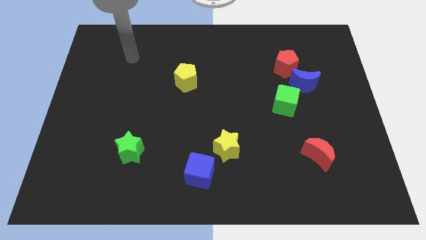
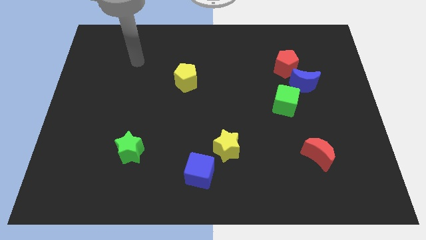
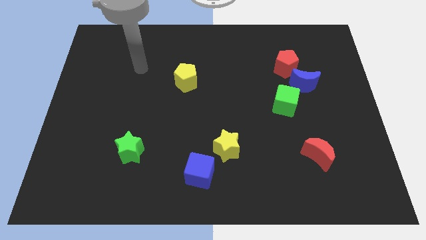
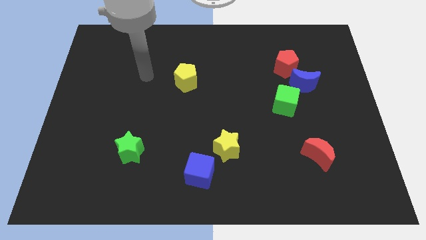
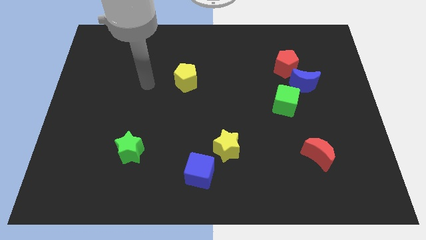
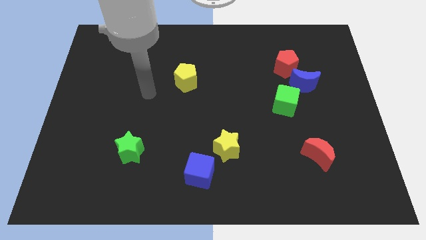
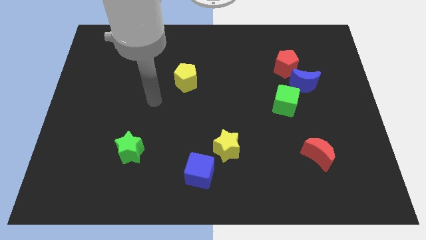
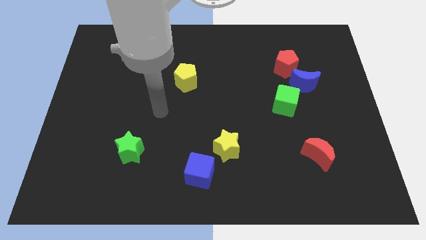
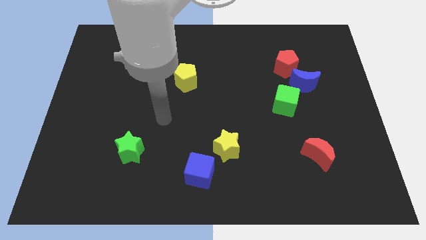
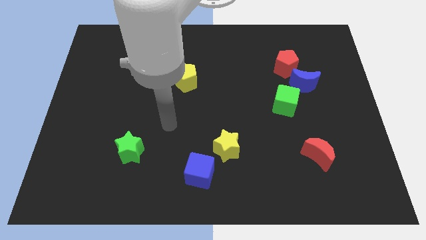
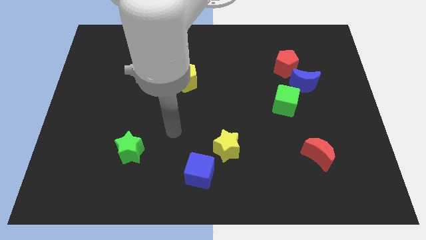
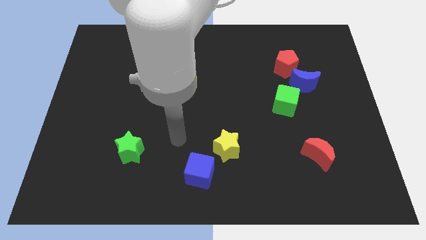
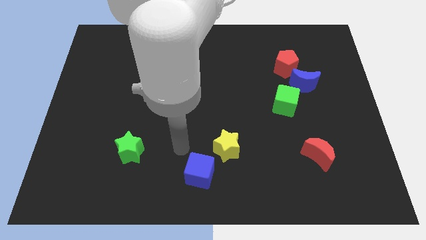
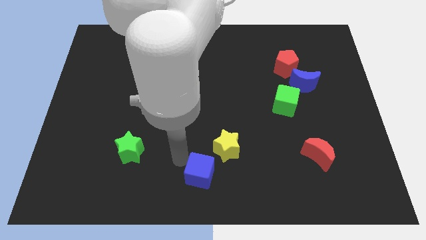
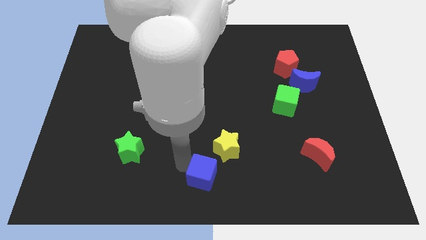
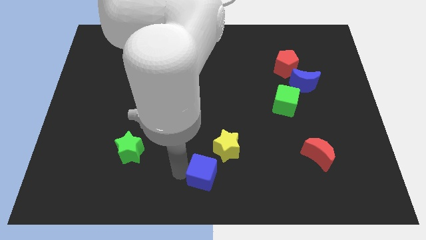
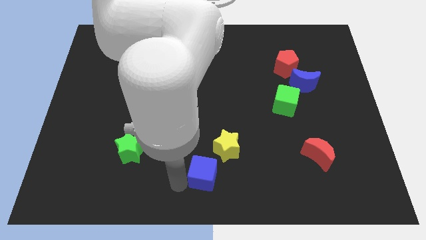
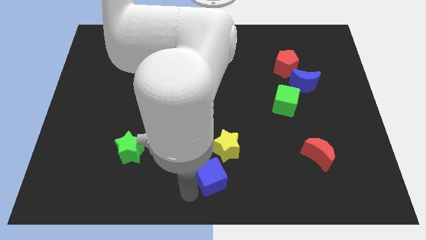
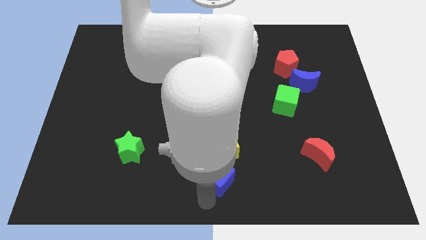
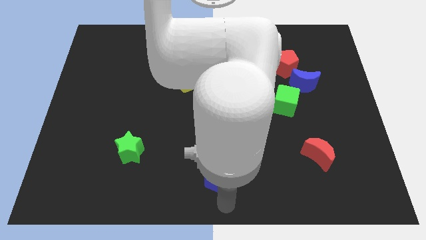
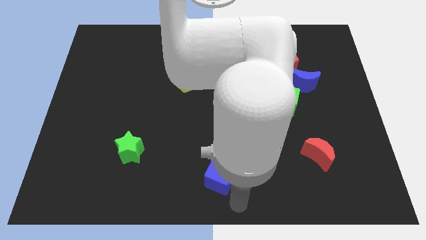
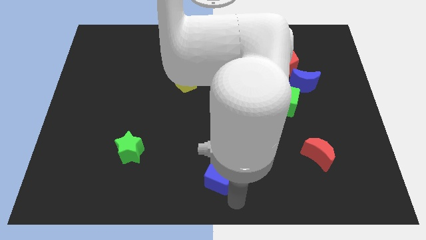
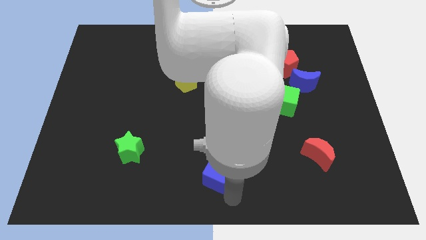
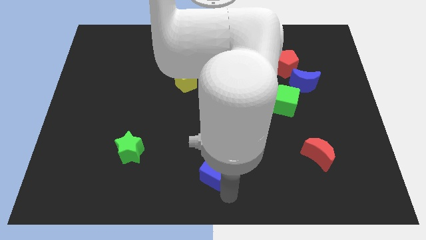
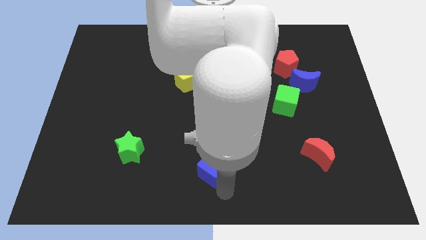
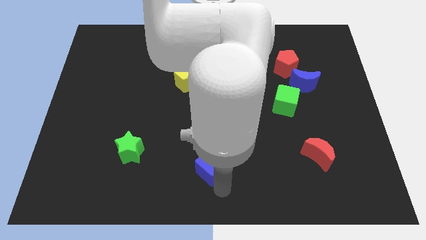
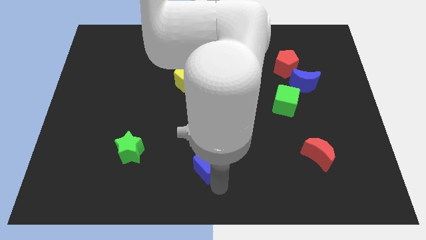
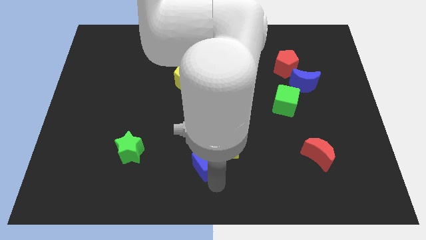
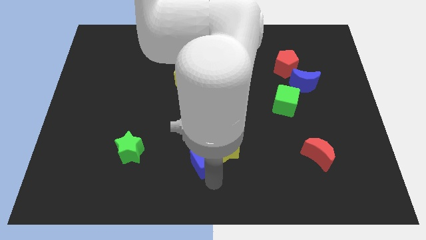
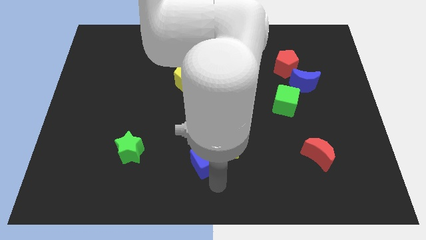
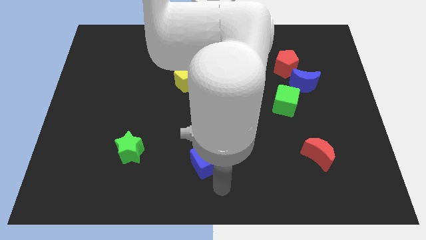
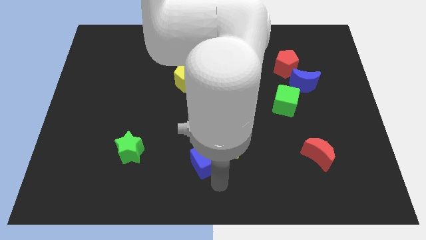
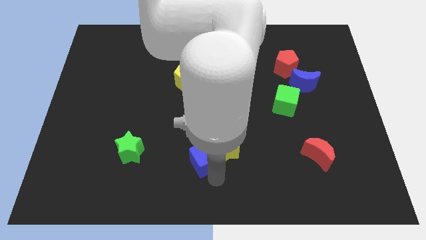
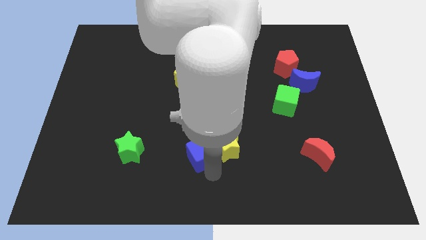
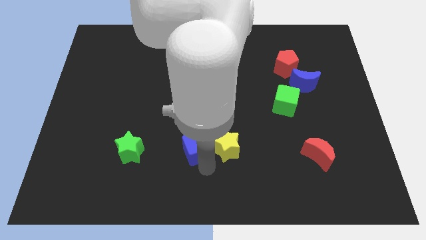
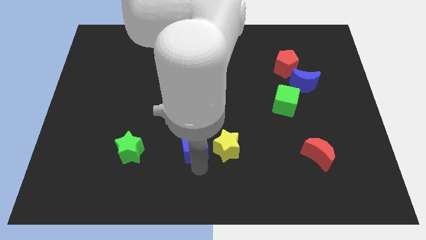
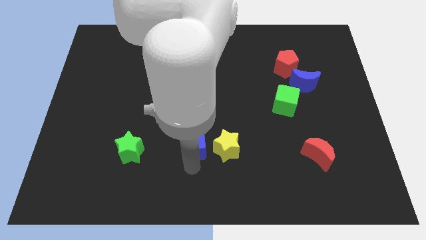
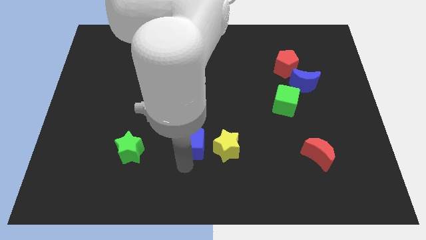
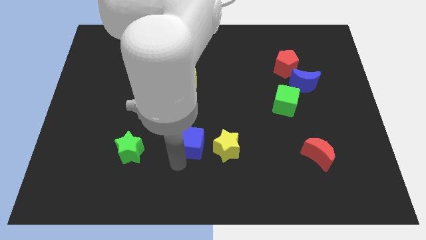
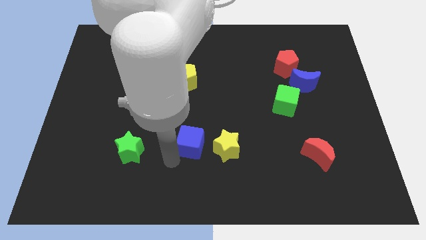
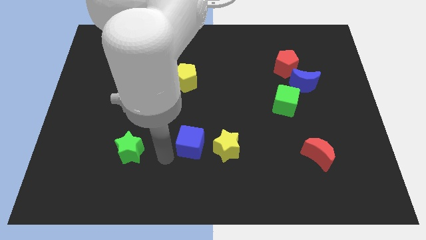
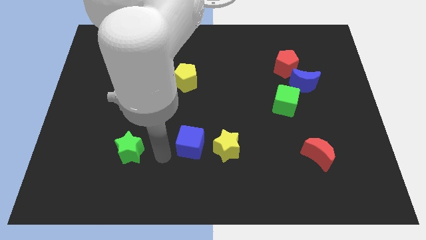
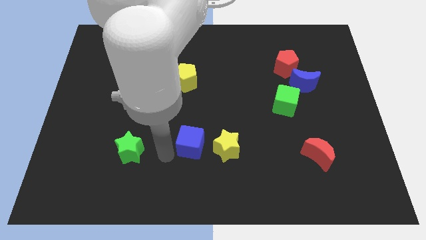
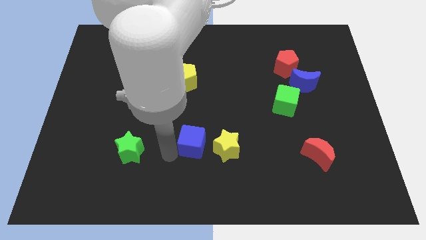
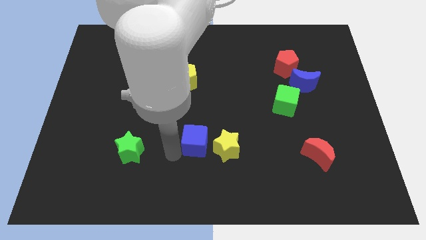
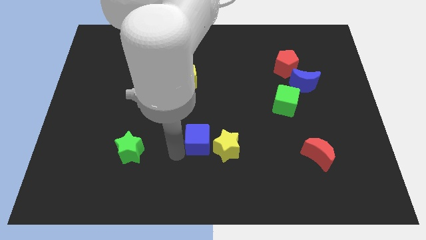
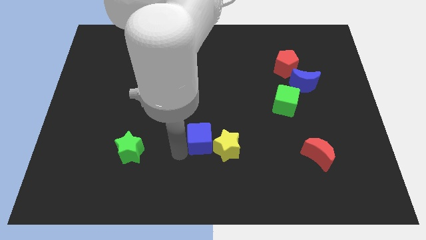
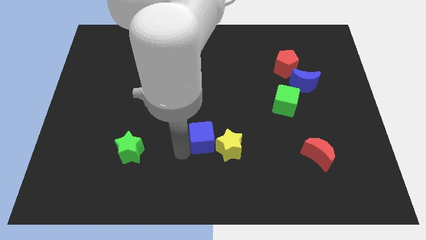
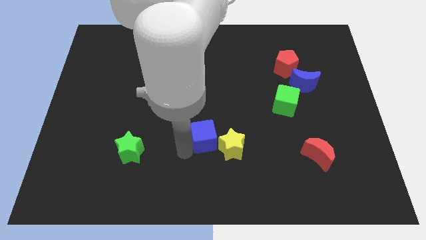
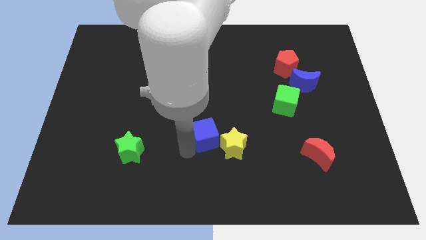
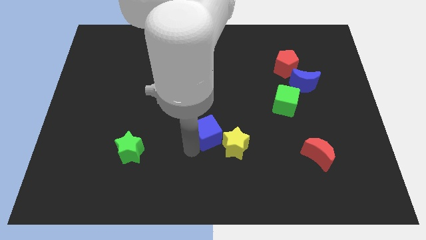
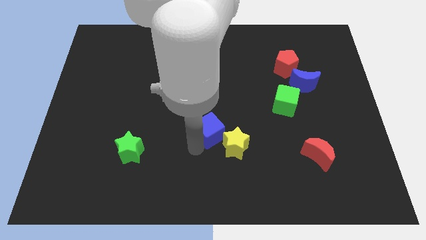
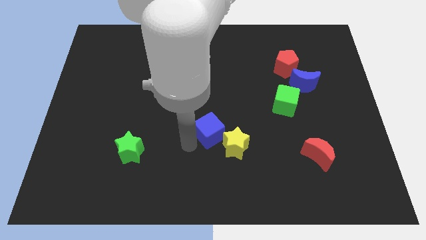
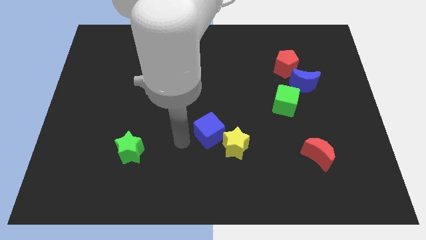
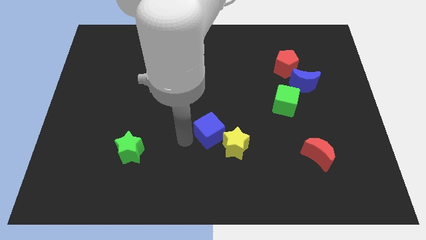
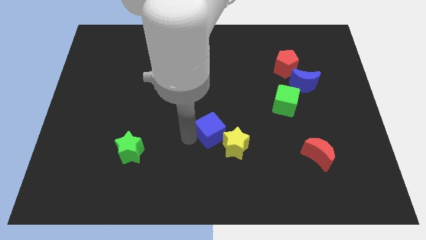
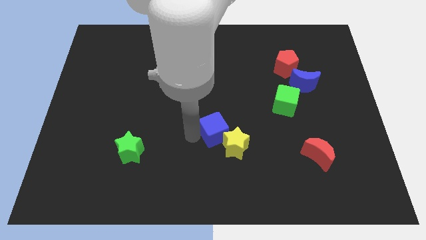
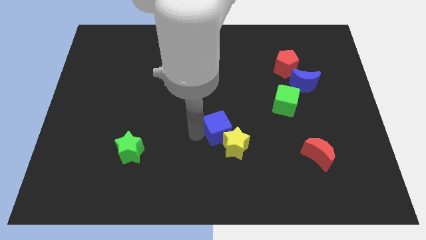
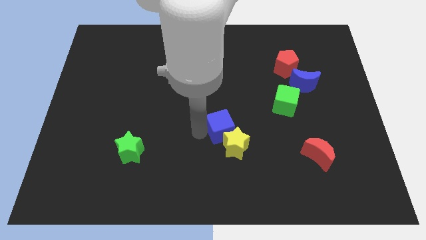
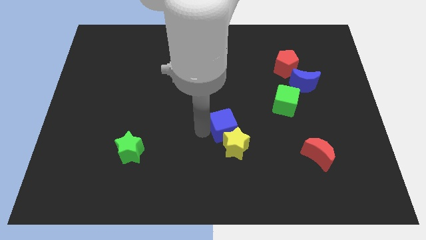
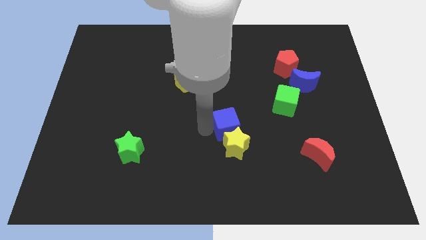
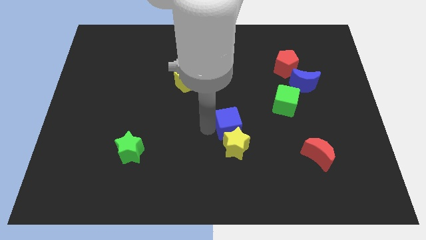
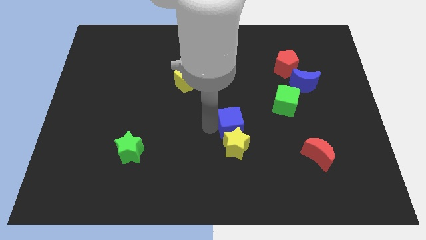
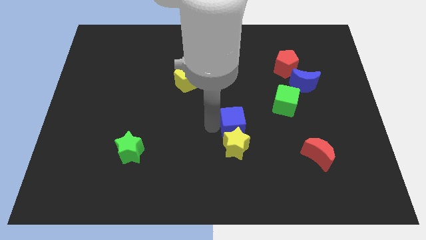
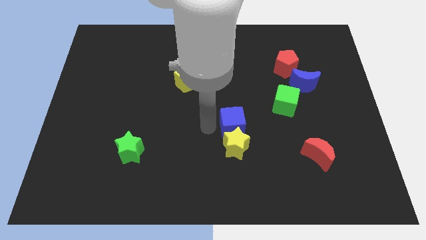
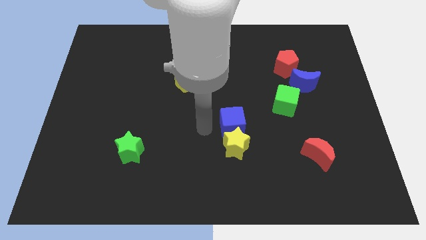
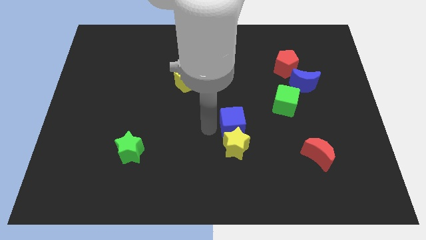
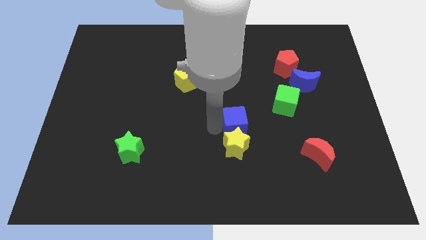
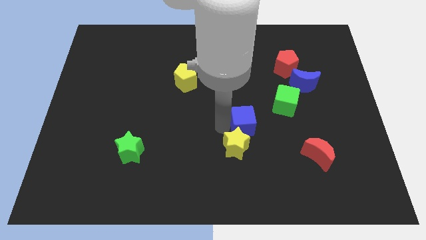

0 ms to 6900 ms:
move the blue cube diagonally down and to the left of the green cube
